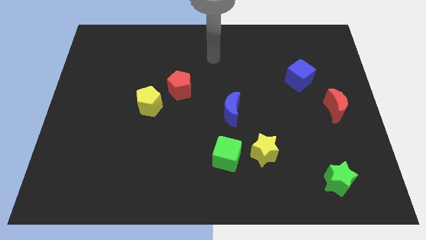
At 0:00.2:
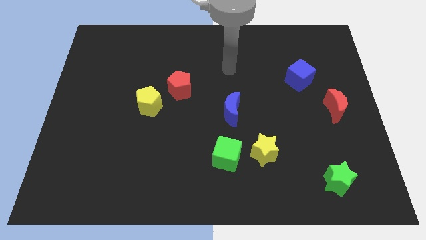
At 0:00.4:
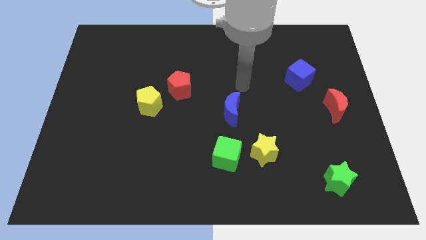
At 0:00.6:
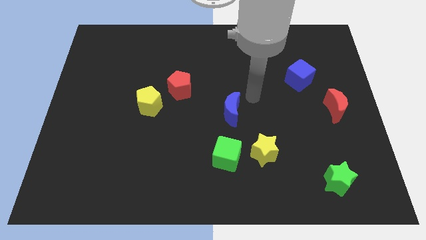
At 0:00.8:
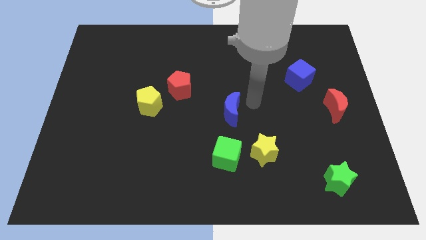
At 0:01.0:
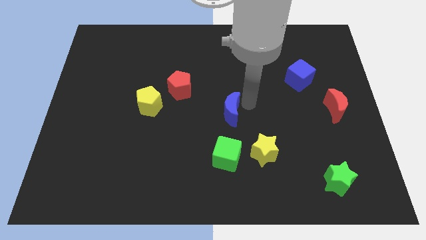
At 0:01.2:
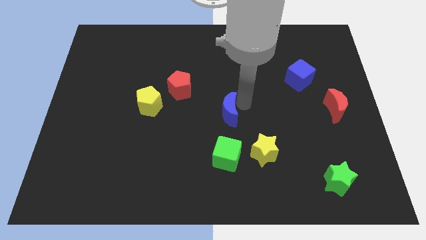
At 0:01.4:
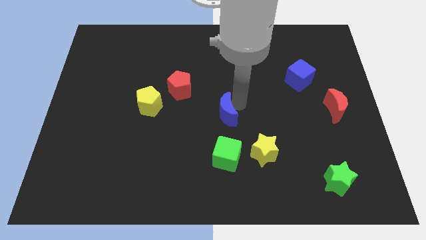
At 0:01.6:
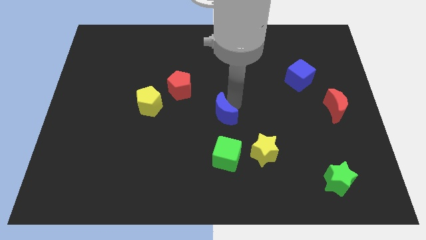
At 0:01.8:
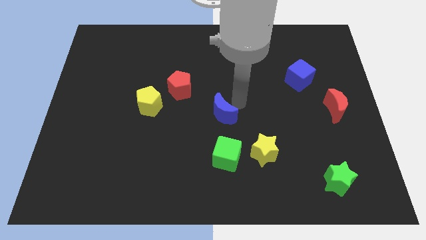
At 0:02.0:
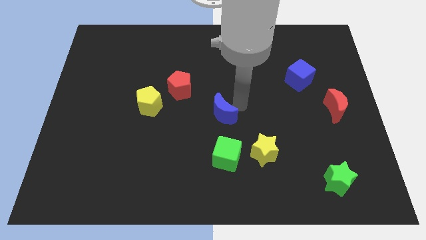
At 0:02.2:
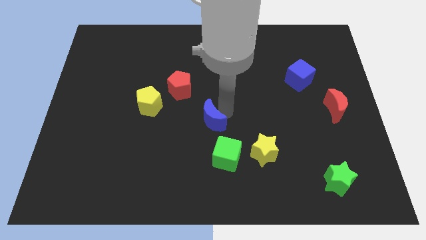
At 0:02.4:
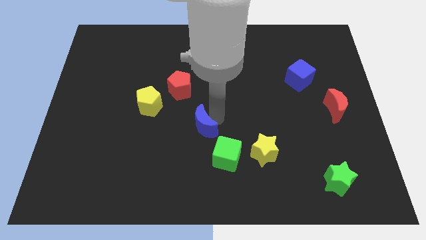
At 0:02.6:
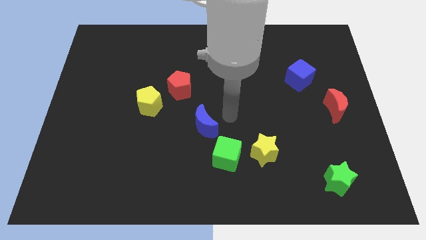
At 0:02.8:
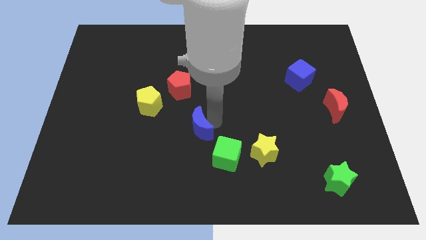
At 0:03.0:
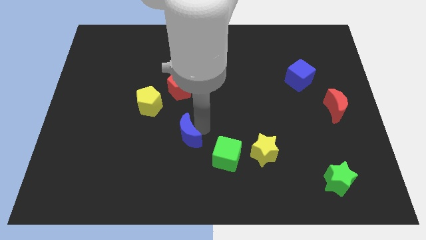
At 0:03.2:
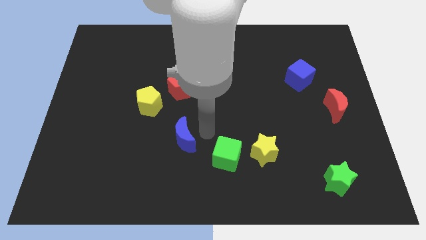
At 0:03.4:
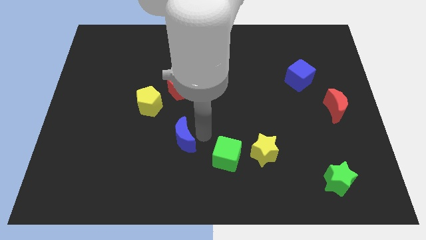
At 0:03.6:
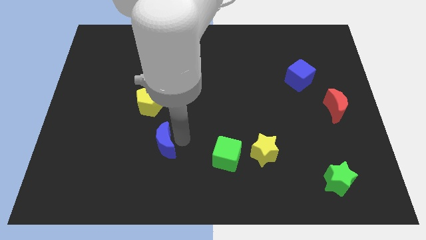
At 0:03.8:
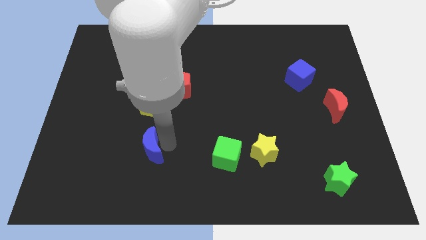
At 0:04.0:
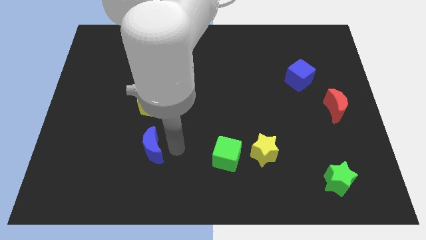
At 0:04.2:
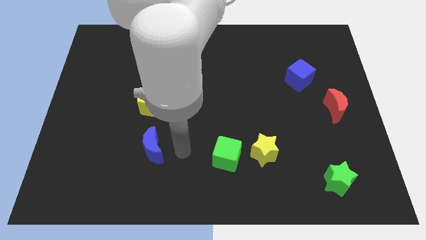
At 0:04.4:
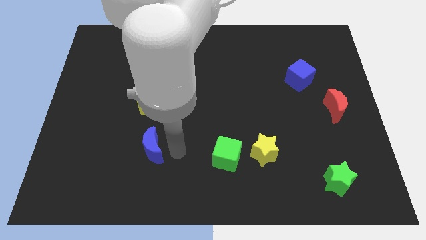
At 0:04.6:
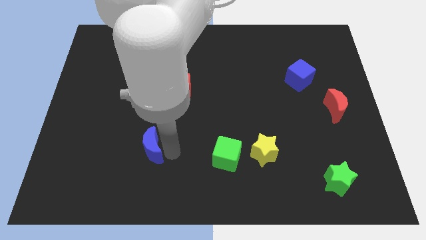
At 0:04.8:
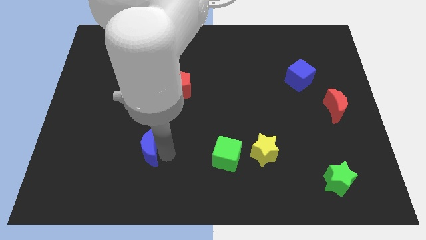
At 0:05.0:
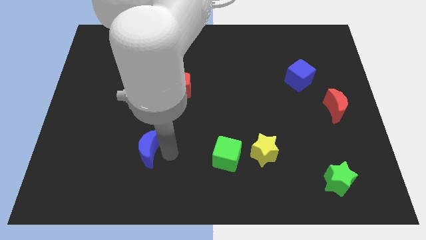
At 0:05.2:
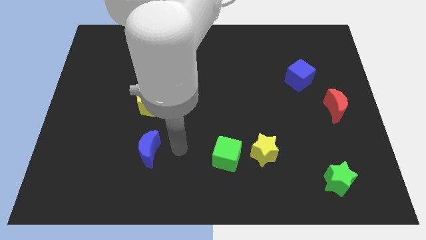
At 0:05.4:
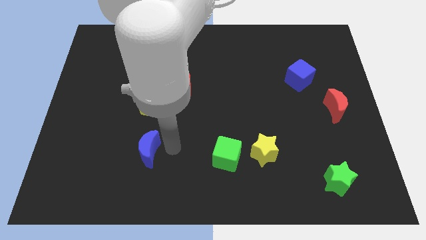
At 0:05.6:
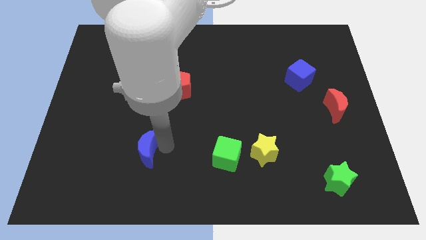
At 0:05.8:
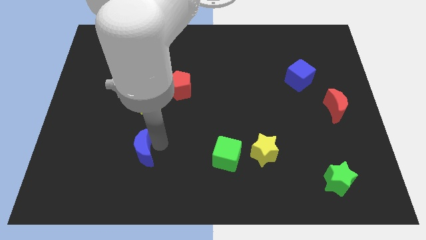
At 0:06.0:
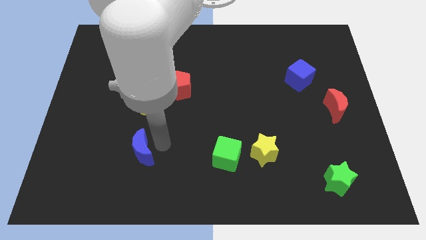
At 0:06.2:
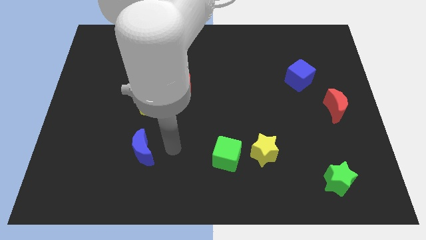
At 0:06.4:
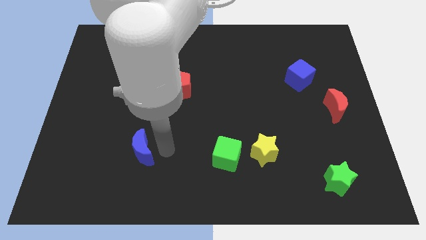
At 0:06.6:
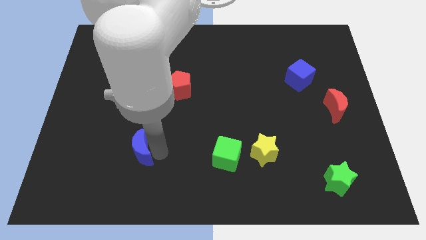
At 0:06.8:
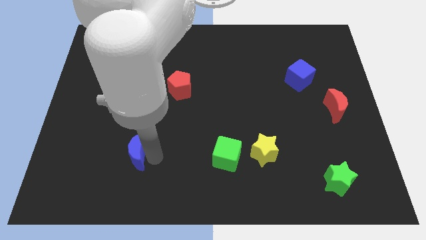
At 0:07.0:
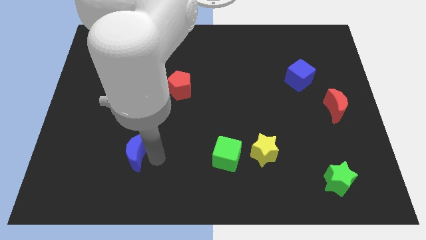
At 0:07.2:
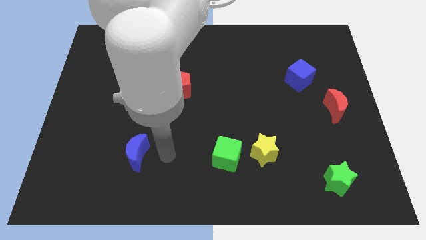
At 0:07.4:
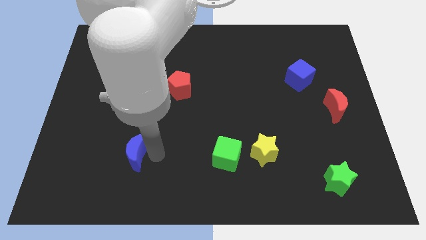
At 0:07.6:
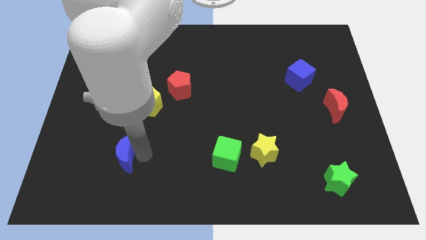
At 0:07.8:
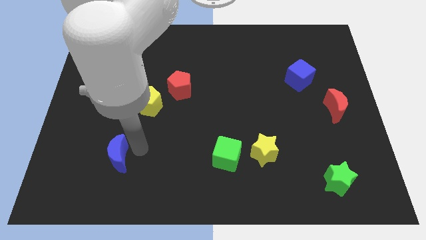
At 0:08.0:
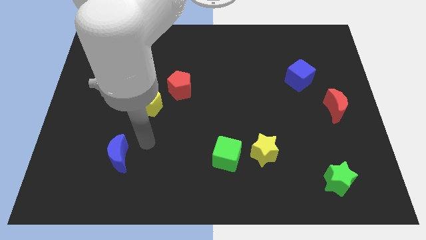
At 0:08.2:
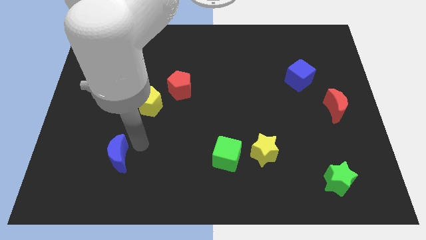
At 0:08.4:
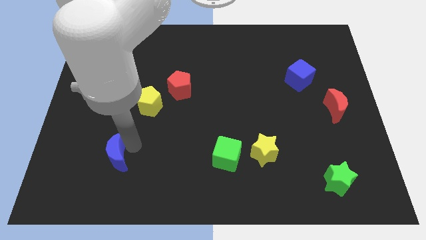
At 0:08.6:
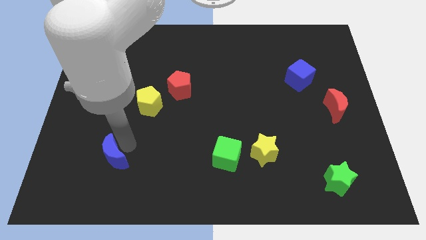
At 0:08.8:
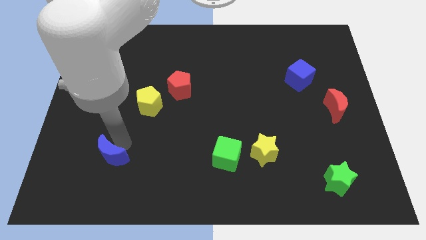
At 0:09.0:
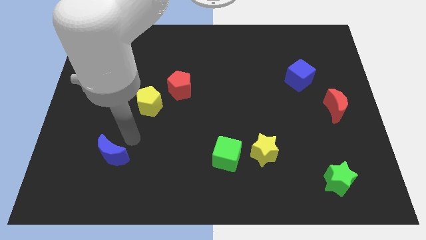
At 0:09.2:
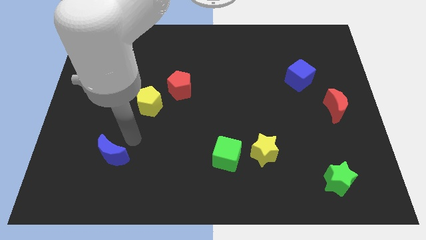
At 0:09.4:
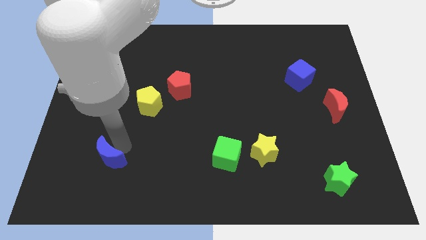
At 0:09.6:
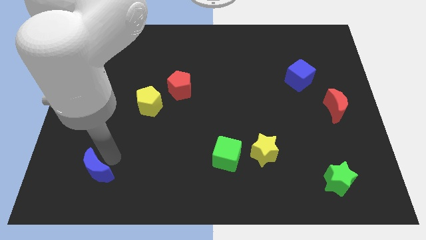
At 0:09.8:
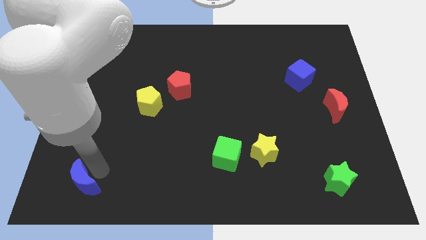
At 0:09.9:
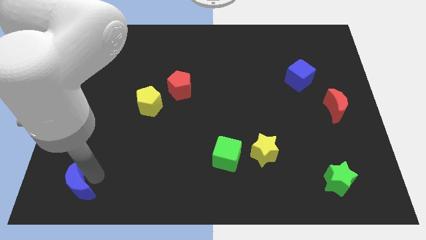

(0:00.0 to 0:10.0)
slide the blue moon to the lower left corner

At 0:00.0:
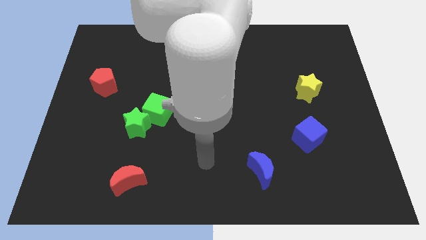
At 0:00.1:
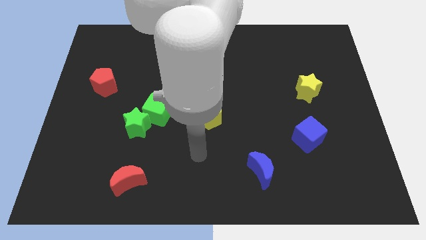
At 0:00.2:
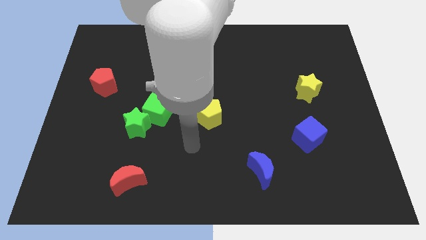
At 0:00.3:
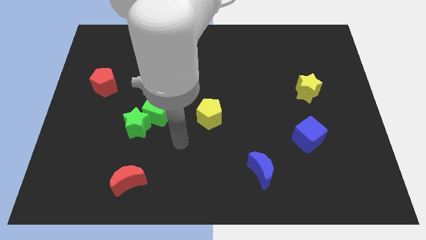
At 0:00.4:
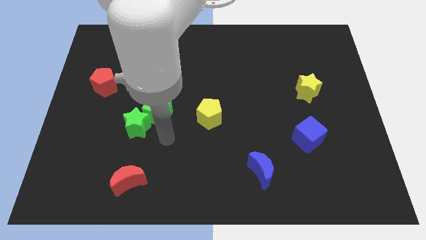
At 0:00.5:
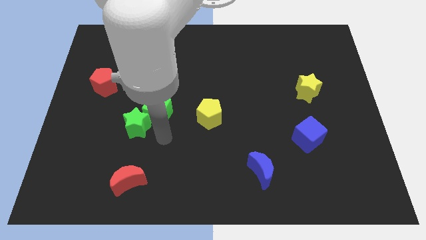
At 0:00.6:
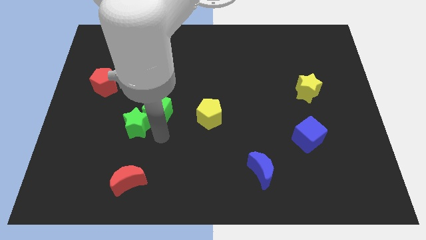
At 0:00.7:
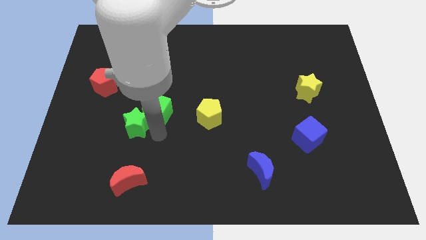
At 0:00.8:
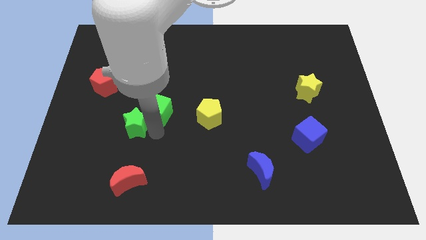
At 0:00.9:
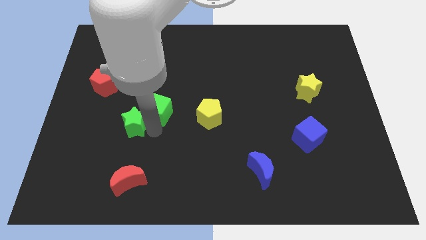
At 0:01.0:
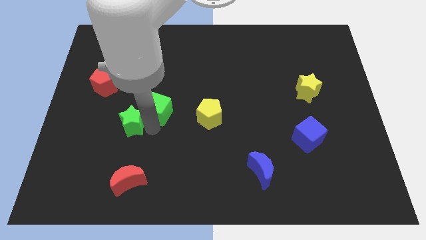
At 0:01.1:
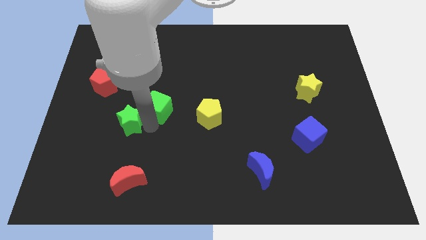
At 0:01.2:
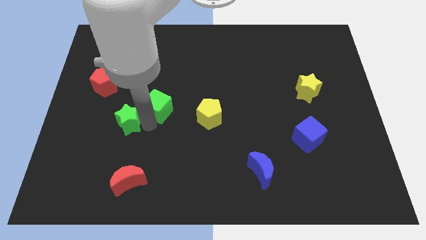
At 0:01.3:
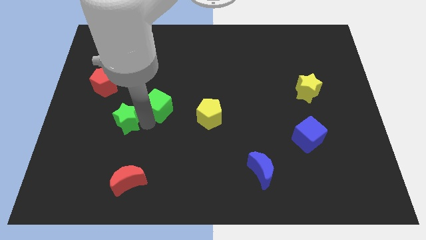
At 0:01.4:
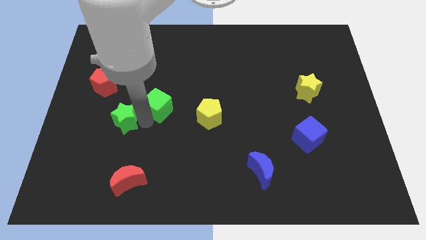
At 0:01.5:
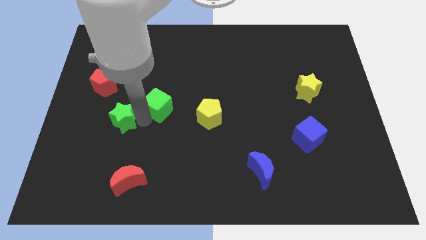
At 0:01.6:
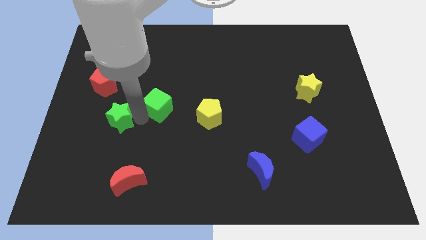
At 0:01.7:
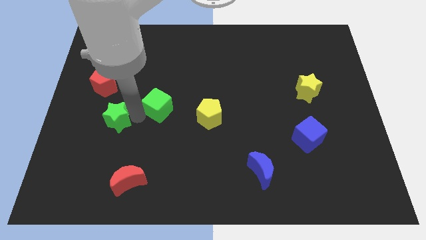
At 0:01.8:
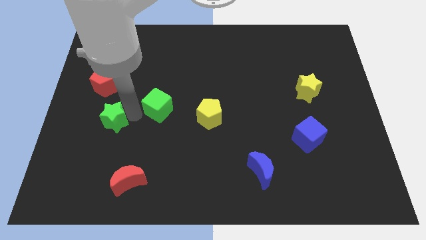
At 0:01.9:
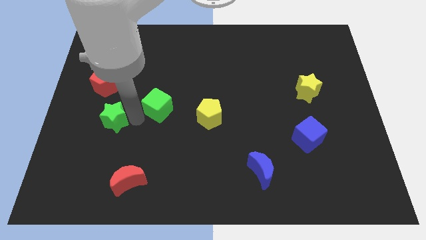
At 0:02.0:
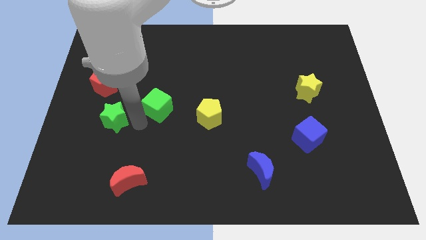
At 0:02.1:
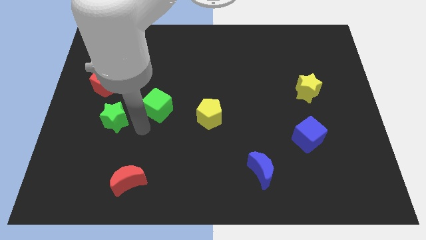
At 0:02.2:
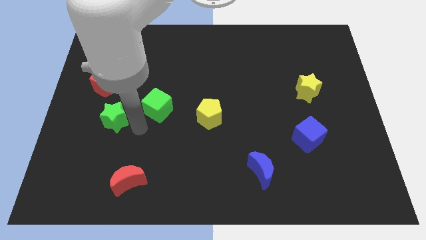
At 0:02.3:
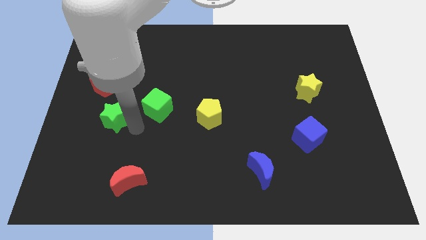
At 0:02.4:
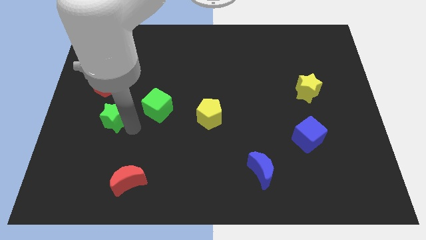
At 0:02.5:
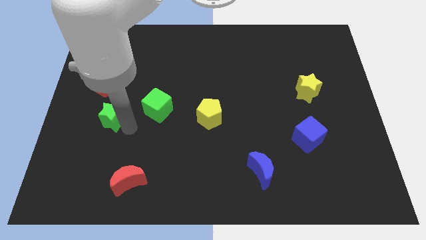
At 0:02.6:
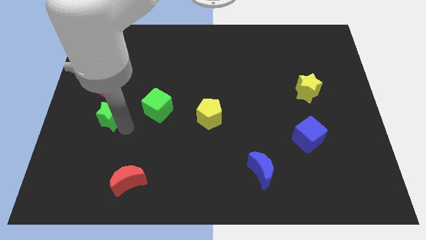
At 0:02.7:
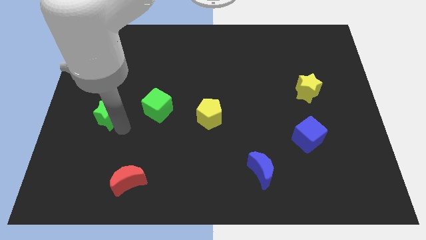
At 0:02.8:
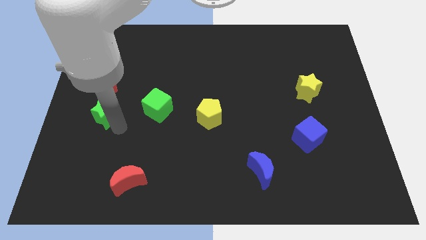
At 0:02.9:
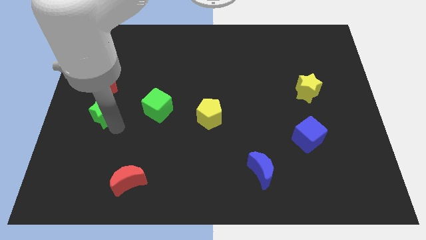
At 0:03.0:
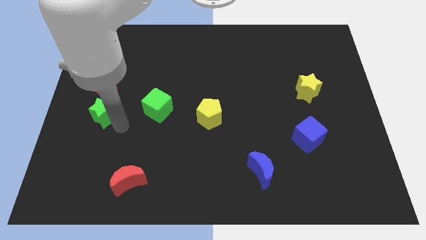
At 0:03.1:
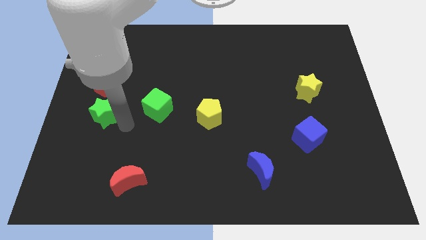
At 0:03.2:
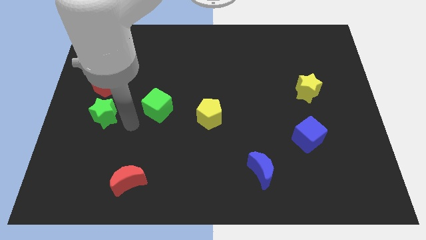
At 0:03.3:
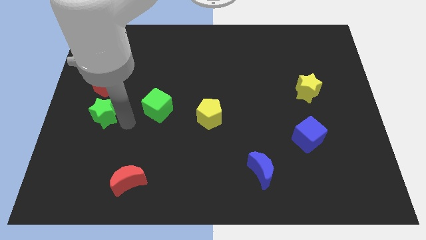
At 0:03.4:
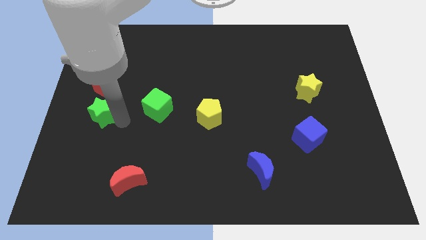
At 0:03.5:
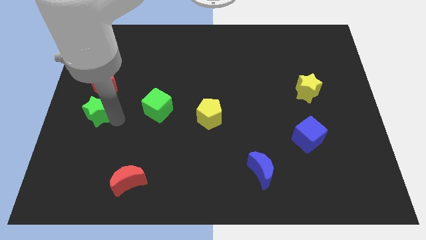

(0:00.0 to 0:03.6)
push the green star to the center left
